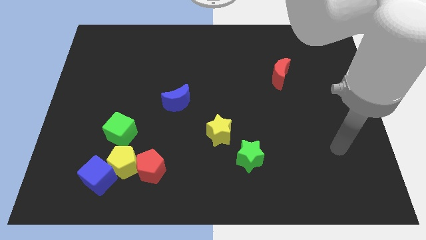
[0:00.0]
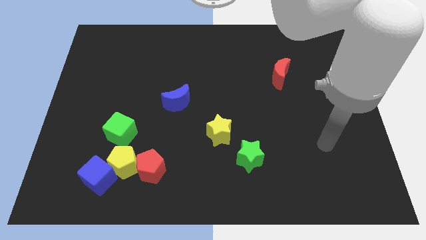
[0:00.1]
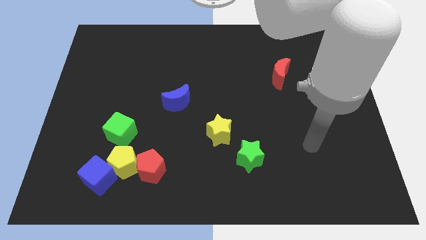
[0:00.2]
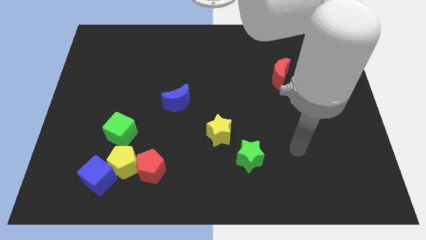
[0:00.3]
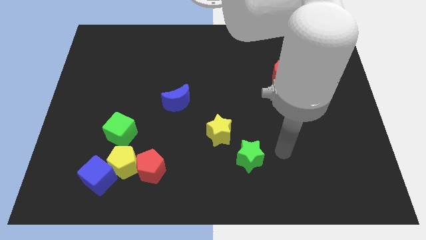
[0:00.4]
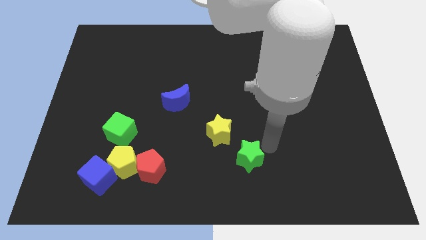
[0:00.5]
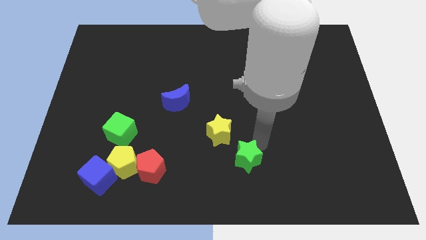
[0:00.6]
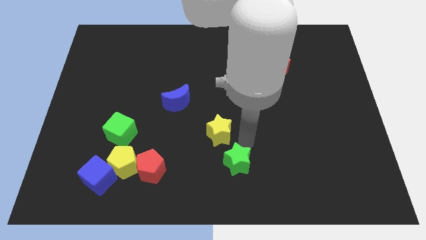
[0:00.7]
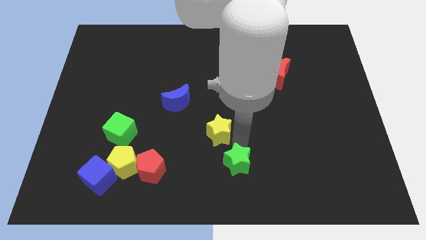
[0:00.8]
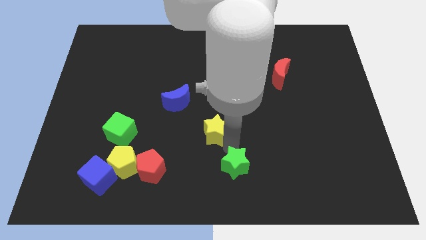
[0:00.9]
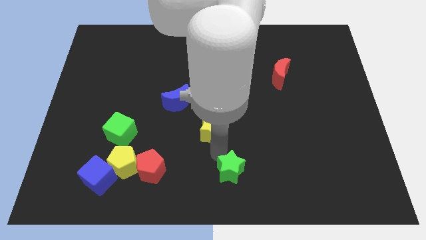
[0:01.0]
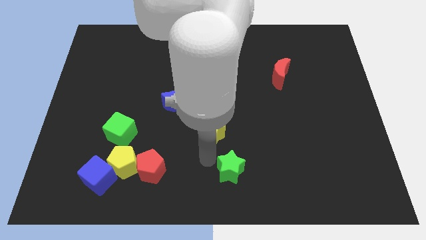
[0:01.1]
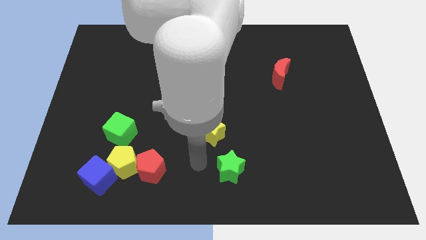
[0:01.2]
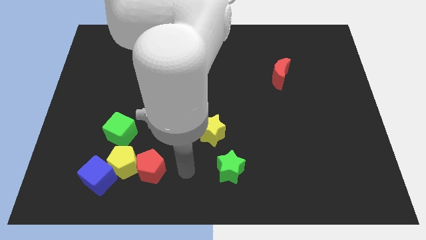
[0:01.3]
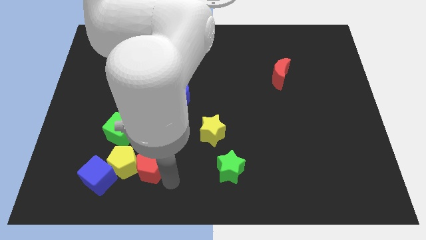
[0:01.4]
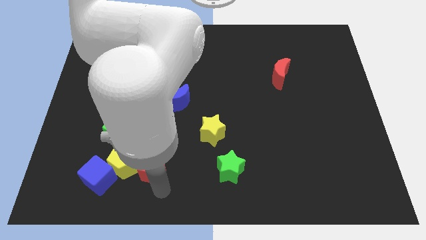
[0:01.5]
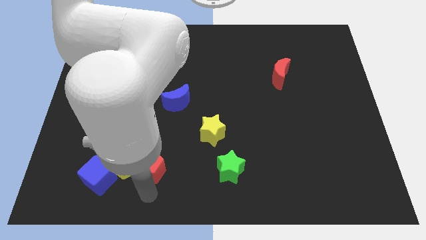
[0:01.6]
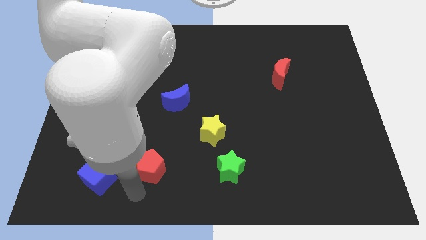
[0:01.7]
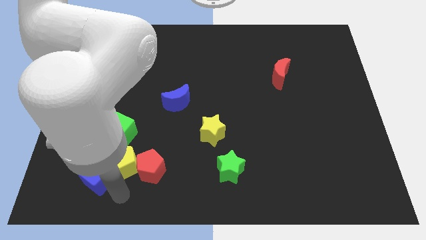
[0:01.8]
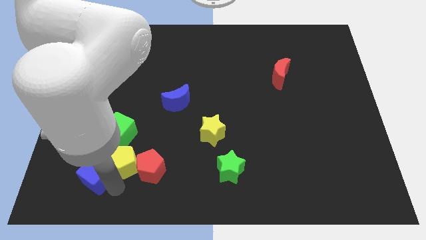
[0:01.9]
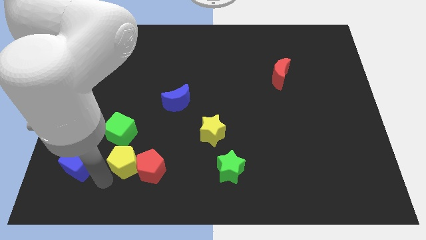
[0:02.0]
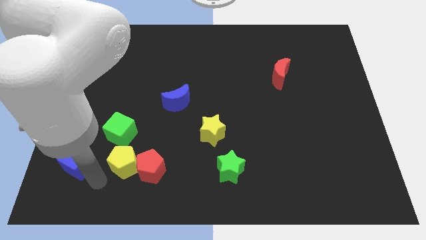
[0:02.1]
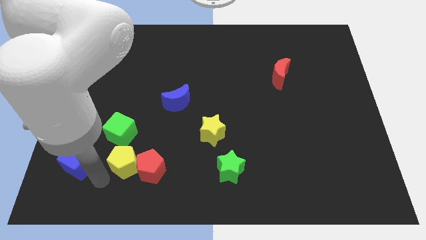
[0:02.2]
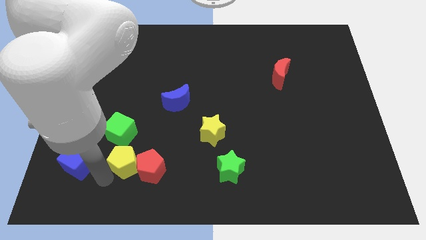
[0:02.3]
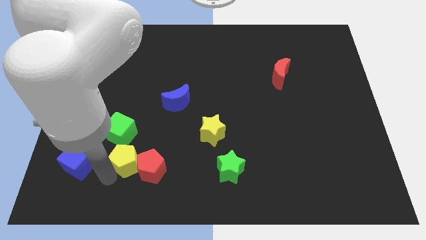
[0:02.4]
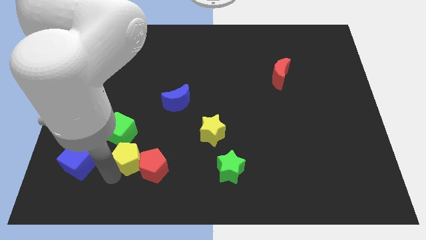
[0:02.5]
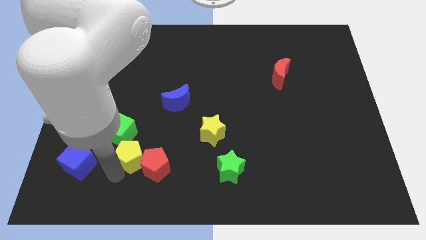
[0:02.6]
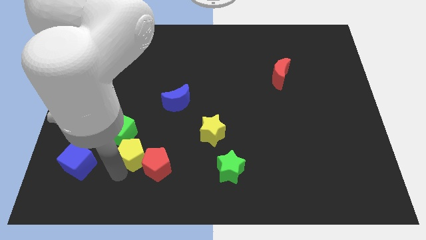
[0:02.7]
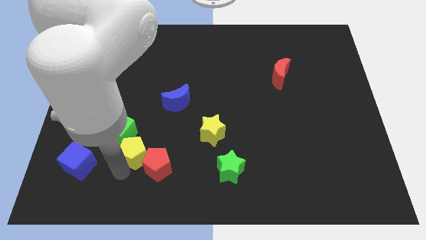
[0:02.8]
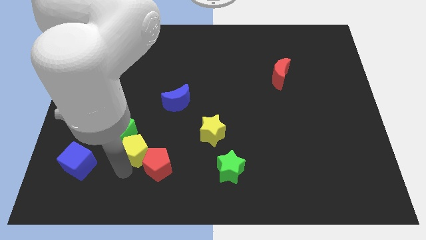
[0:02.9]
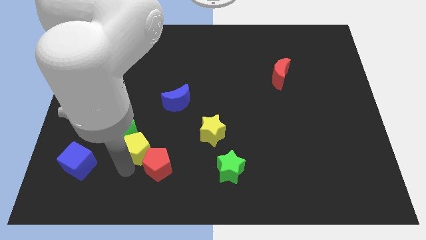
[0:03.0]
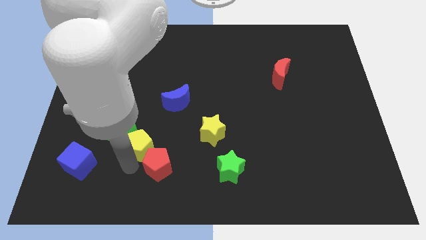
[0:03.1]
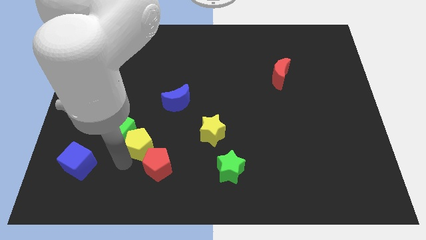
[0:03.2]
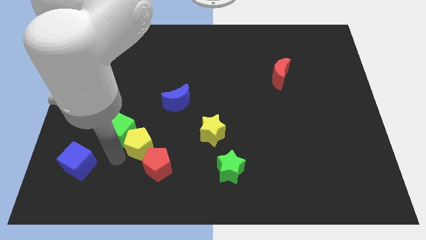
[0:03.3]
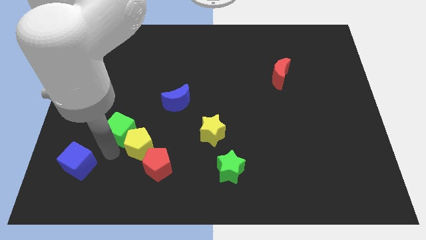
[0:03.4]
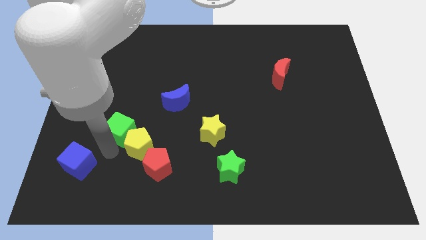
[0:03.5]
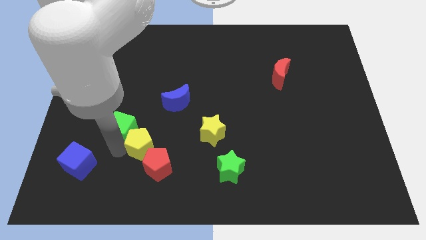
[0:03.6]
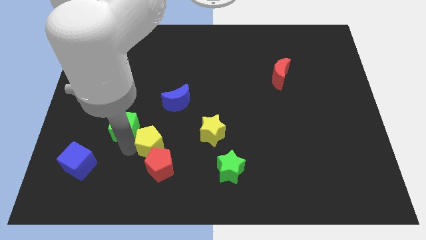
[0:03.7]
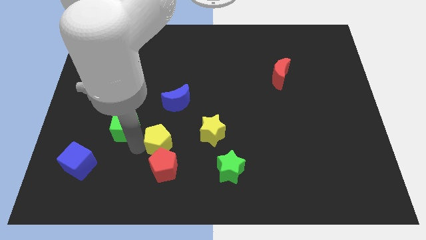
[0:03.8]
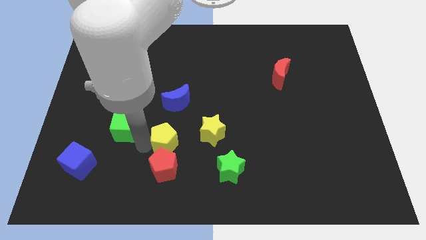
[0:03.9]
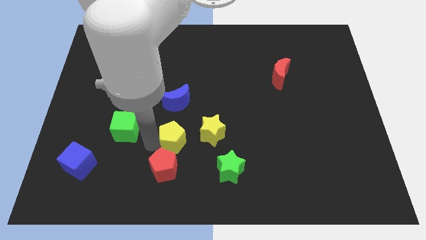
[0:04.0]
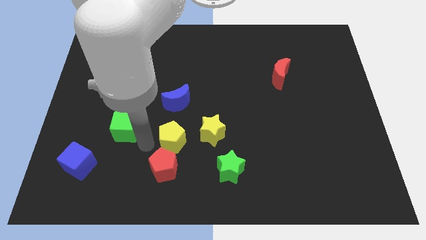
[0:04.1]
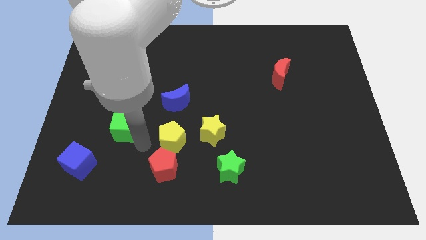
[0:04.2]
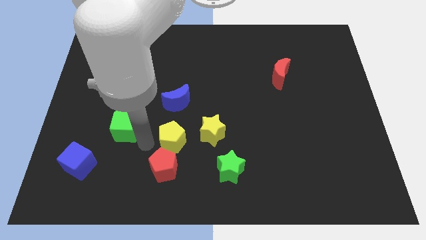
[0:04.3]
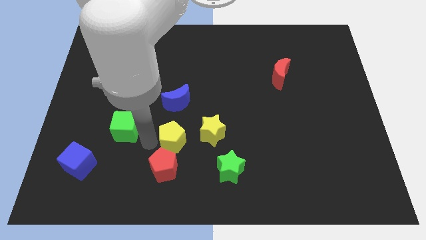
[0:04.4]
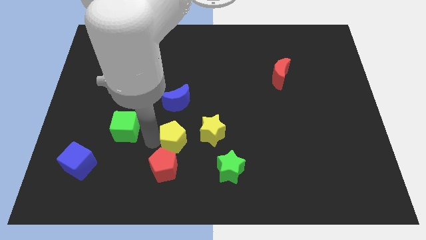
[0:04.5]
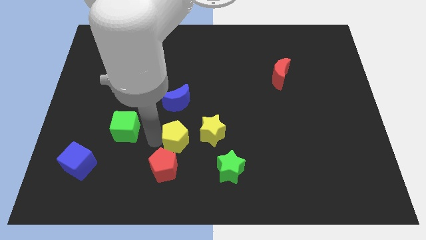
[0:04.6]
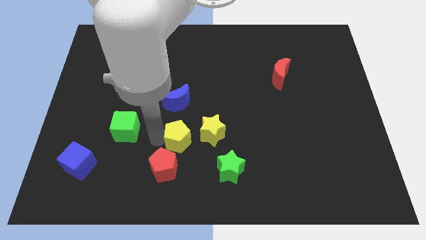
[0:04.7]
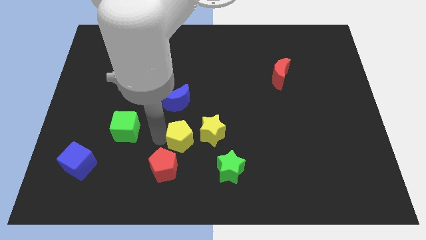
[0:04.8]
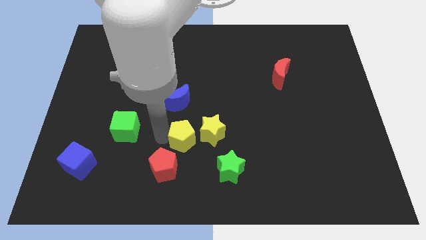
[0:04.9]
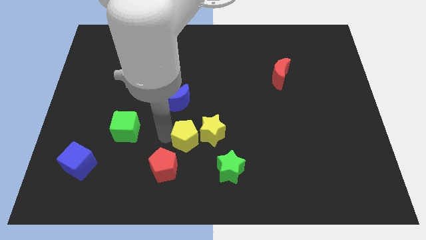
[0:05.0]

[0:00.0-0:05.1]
slide the yellow pentagon to the yellow star

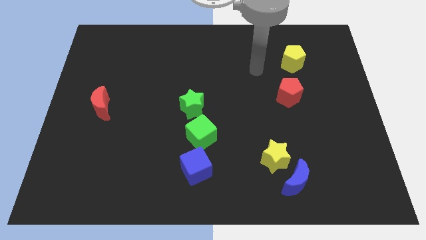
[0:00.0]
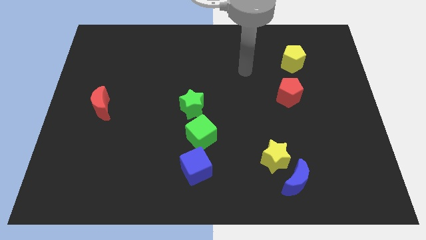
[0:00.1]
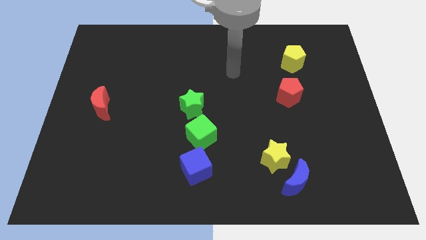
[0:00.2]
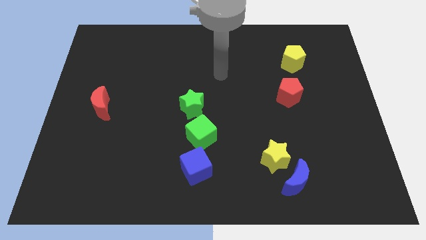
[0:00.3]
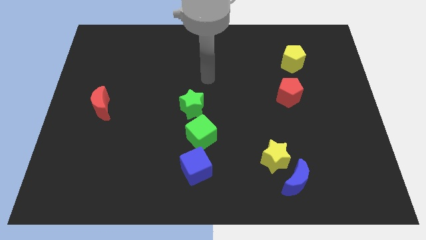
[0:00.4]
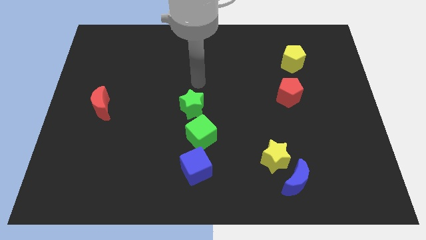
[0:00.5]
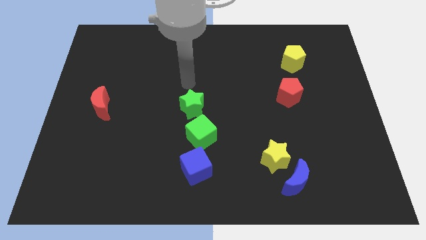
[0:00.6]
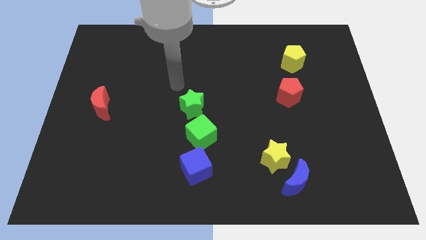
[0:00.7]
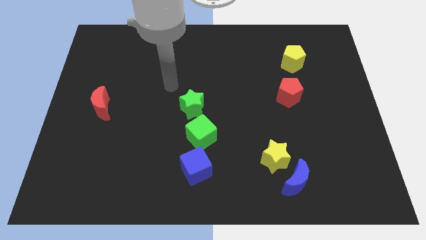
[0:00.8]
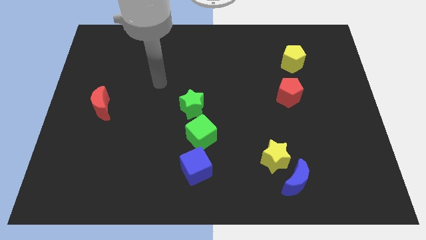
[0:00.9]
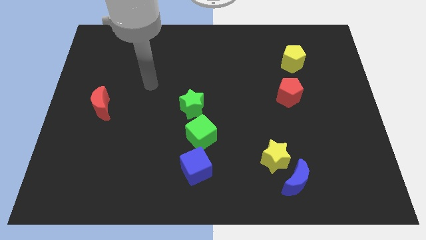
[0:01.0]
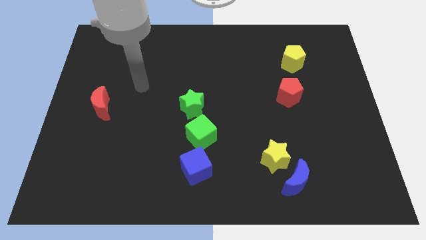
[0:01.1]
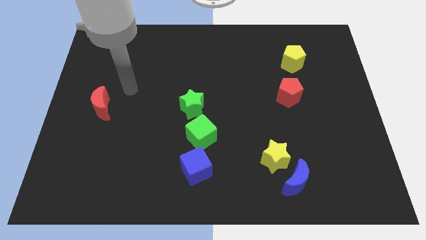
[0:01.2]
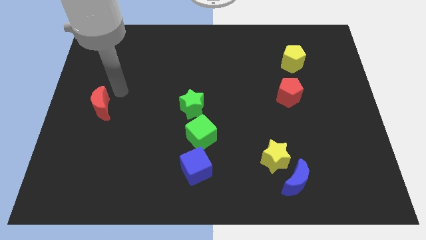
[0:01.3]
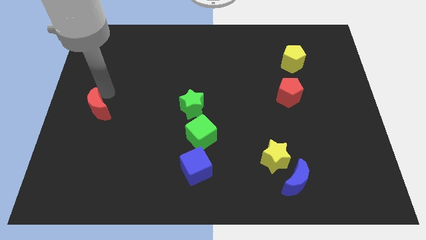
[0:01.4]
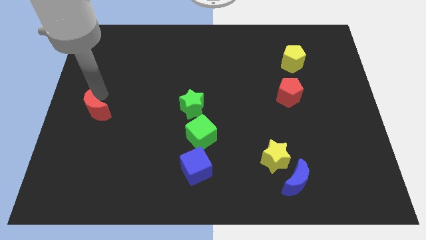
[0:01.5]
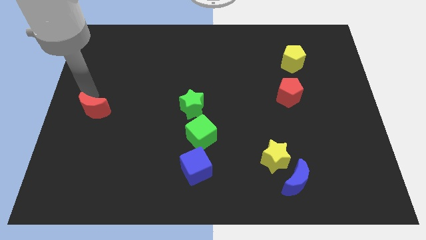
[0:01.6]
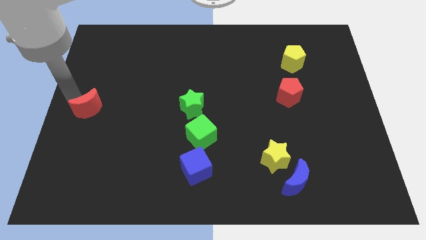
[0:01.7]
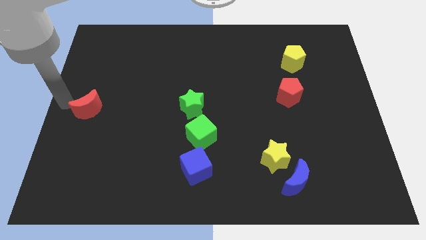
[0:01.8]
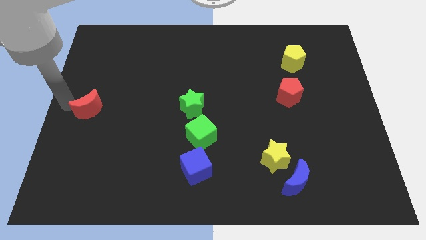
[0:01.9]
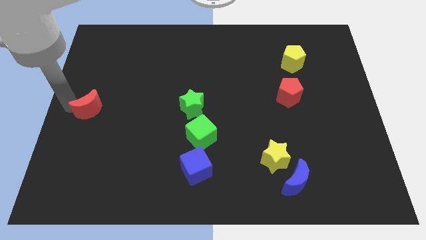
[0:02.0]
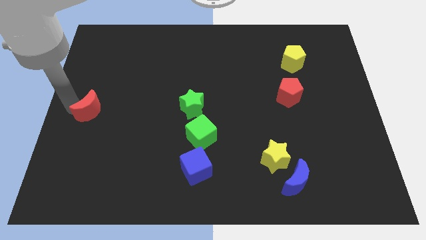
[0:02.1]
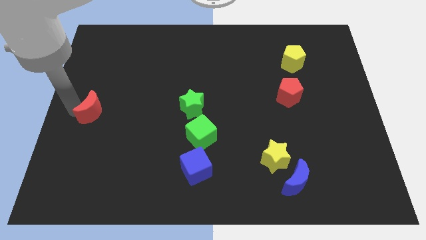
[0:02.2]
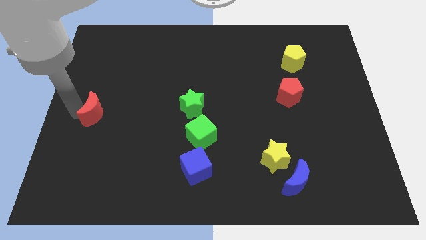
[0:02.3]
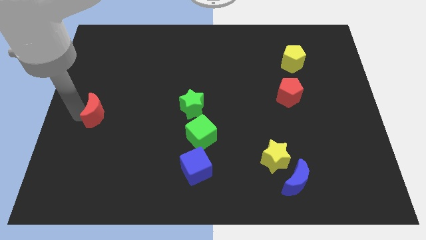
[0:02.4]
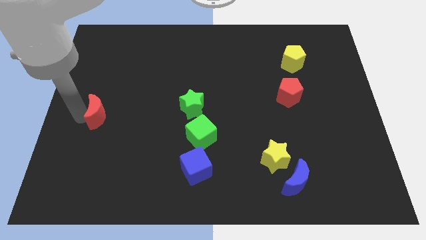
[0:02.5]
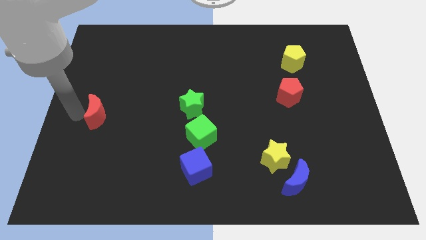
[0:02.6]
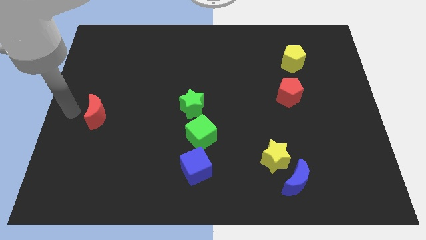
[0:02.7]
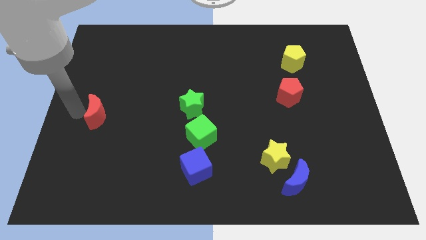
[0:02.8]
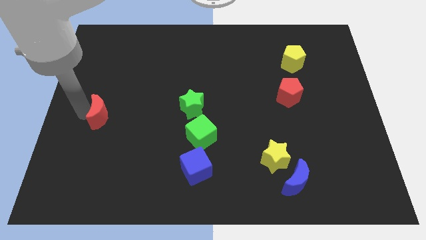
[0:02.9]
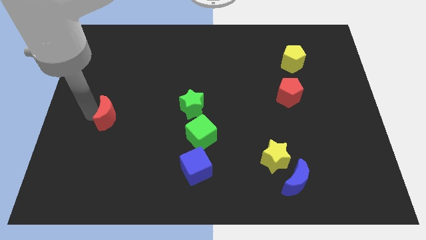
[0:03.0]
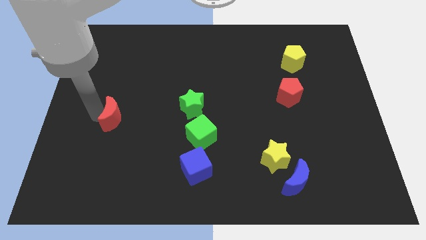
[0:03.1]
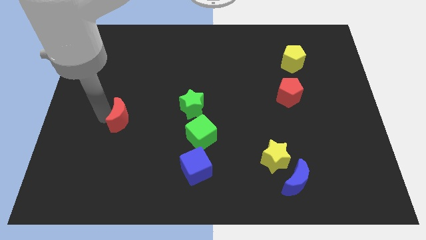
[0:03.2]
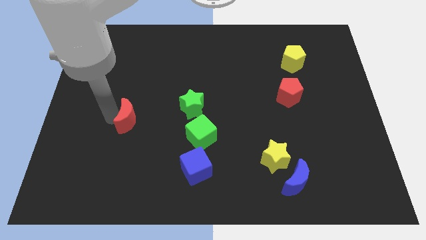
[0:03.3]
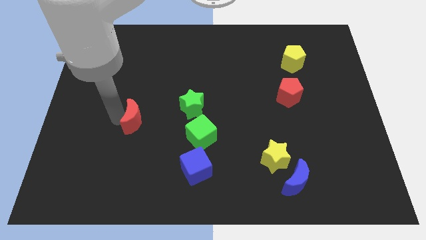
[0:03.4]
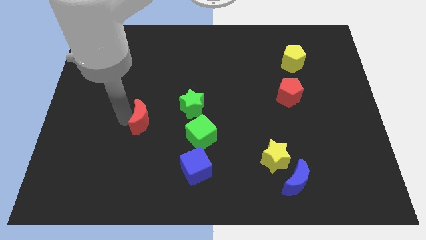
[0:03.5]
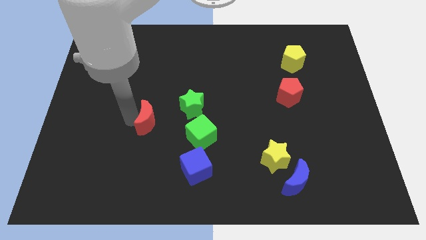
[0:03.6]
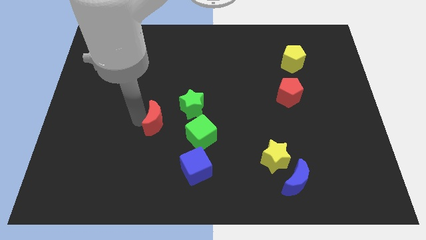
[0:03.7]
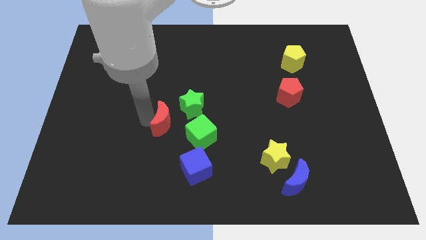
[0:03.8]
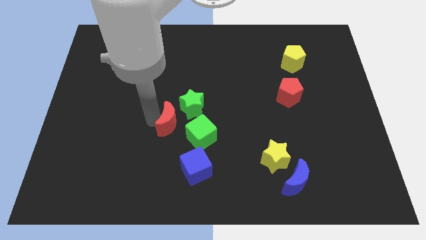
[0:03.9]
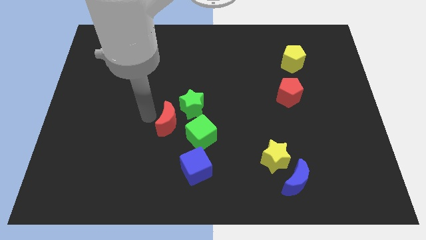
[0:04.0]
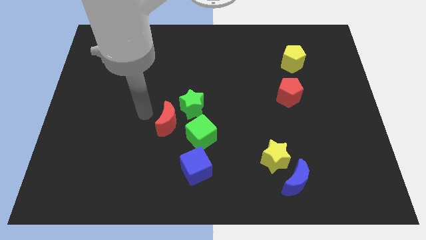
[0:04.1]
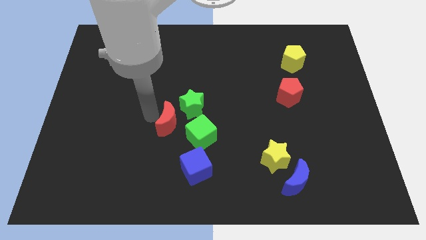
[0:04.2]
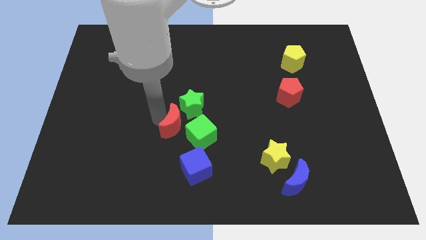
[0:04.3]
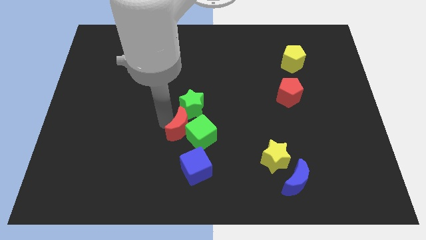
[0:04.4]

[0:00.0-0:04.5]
push the red moon to the green cube
